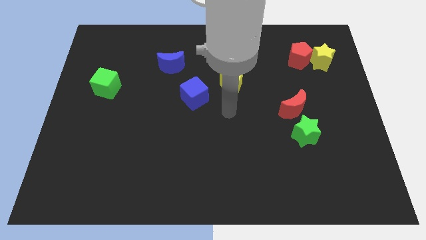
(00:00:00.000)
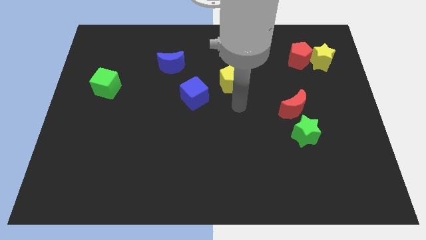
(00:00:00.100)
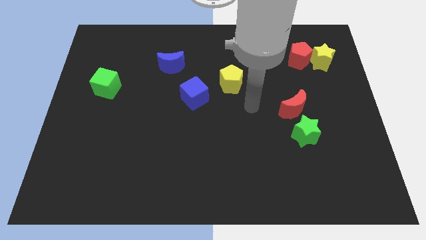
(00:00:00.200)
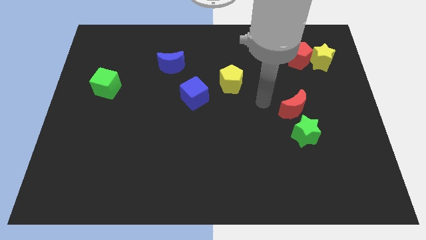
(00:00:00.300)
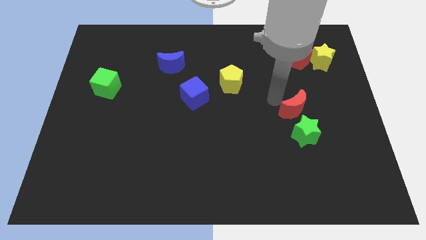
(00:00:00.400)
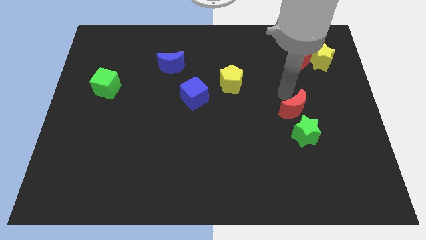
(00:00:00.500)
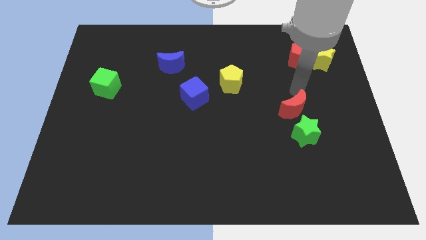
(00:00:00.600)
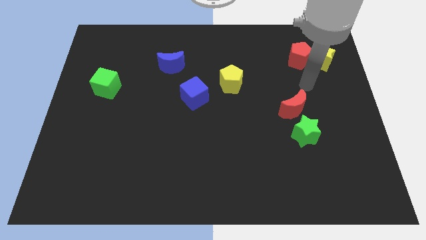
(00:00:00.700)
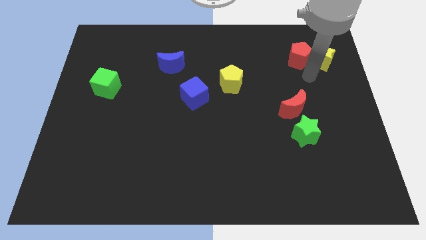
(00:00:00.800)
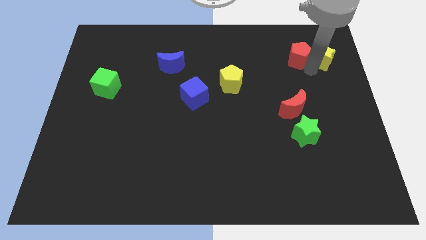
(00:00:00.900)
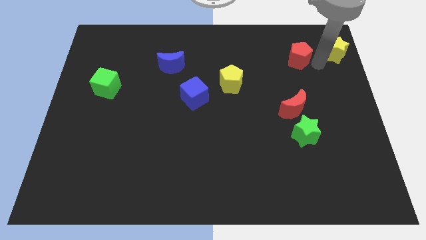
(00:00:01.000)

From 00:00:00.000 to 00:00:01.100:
move the red pentagon away from the yellow star

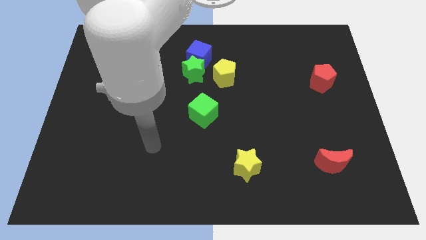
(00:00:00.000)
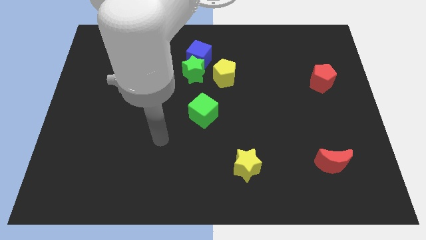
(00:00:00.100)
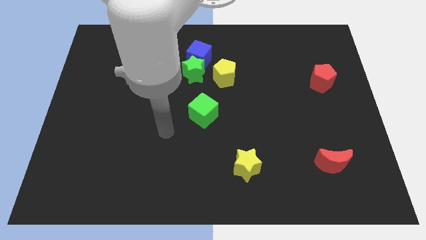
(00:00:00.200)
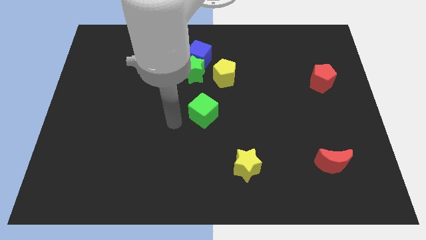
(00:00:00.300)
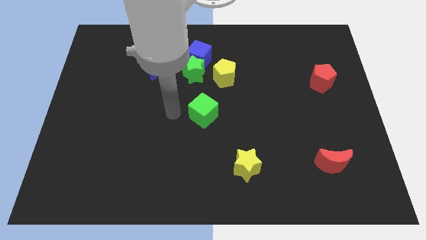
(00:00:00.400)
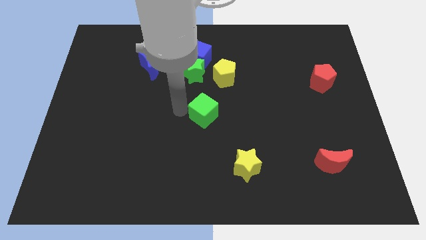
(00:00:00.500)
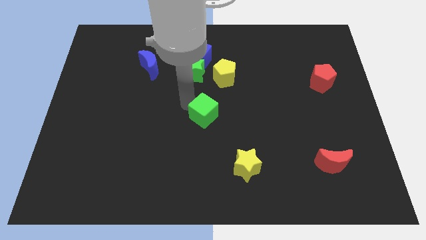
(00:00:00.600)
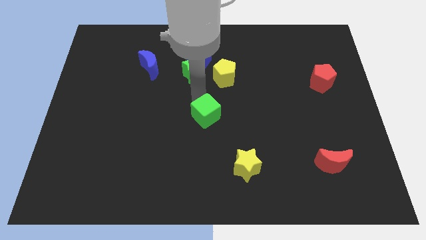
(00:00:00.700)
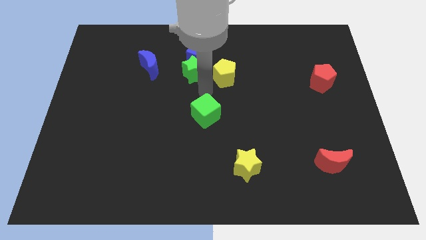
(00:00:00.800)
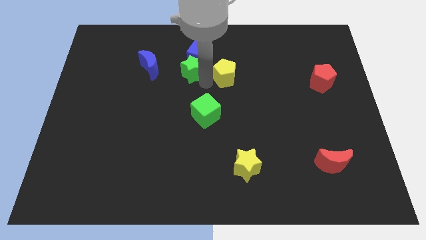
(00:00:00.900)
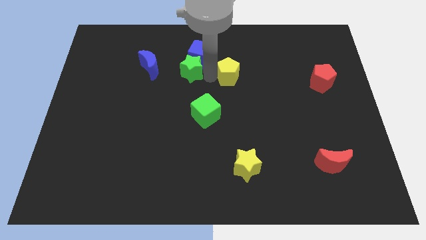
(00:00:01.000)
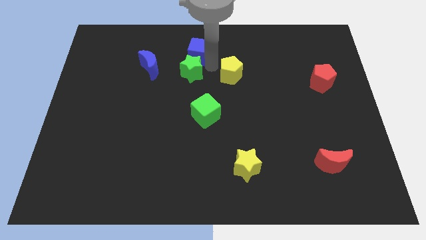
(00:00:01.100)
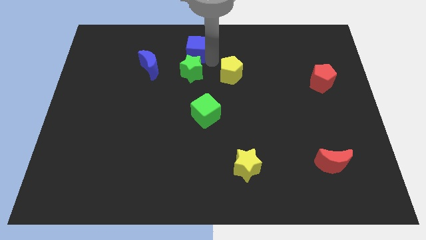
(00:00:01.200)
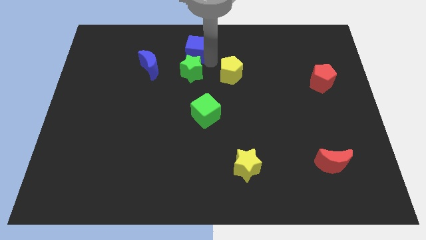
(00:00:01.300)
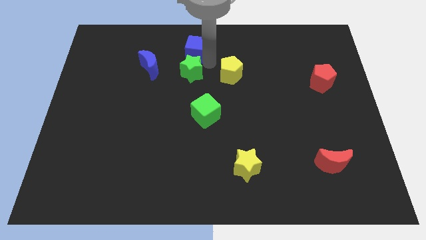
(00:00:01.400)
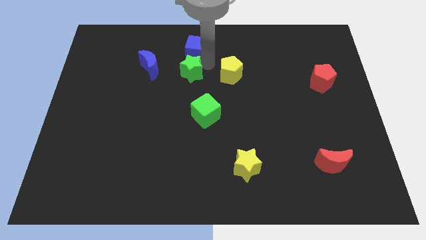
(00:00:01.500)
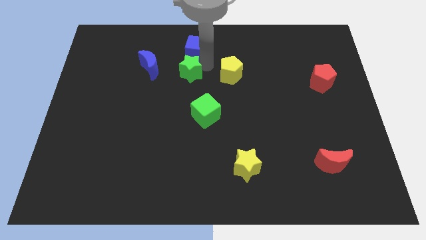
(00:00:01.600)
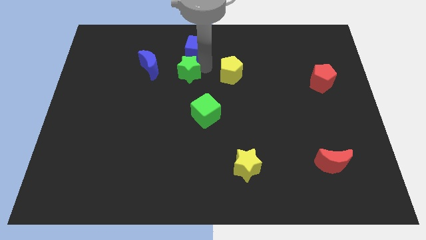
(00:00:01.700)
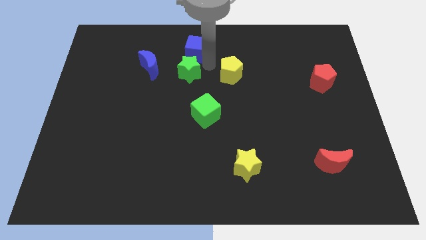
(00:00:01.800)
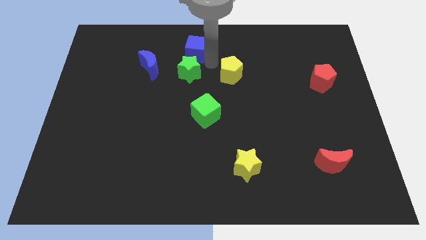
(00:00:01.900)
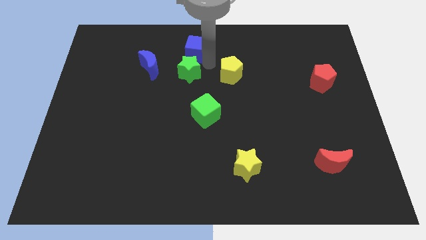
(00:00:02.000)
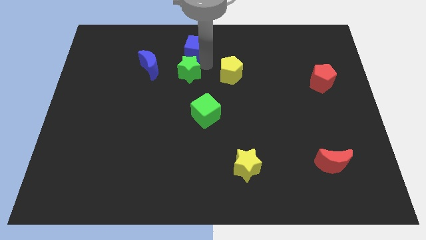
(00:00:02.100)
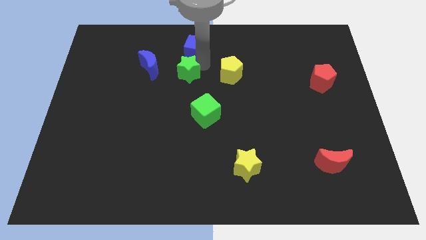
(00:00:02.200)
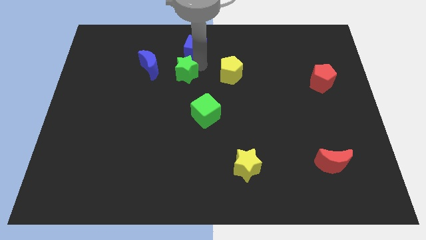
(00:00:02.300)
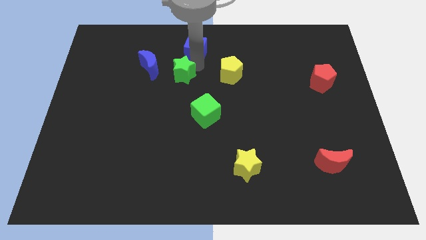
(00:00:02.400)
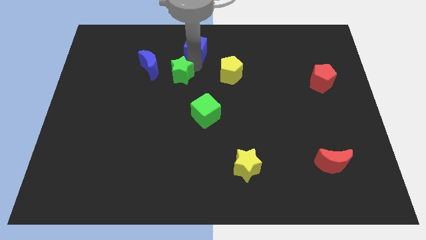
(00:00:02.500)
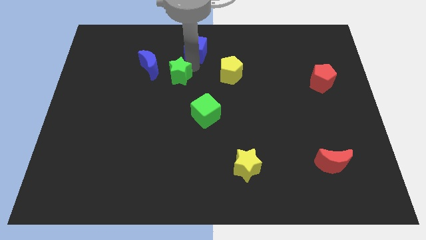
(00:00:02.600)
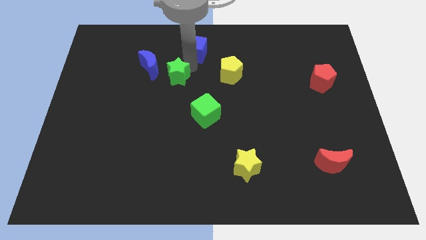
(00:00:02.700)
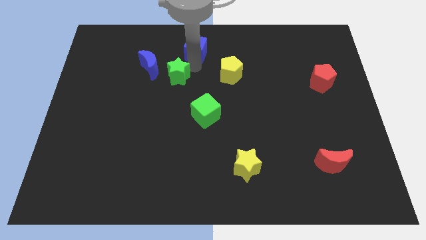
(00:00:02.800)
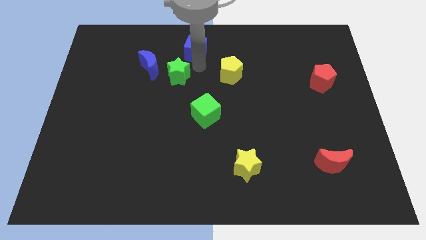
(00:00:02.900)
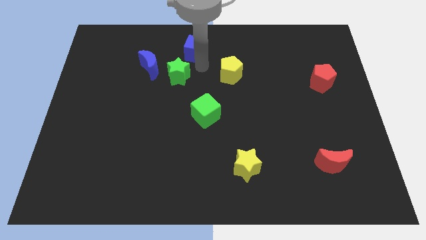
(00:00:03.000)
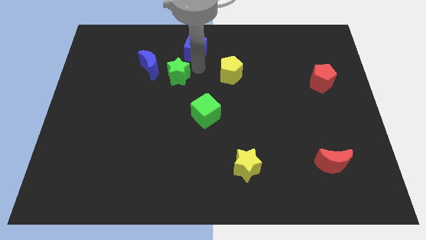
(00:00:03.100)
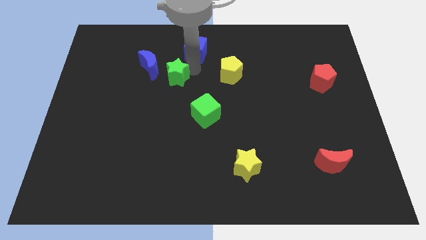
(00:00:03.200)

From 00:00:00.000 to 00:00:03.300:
pull the green star apart from the blue cube and yellow pentagon

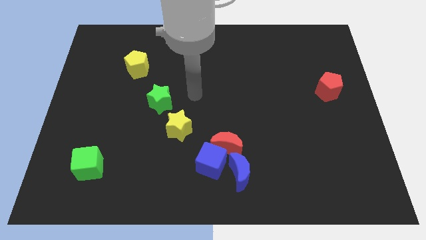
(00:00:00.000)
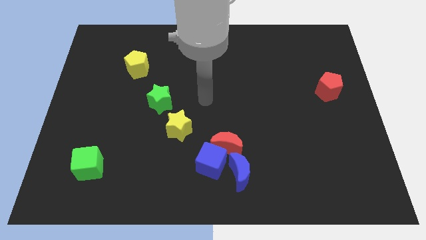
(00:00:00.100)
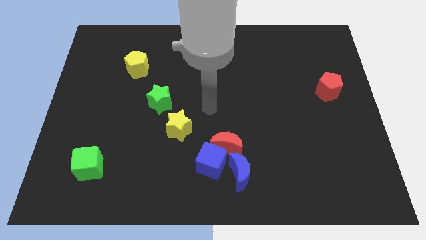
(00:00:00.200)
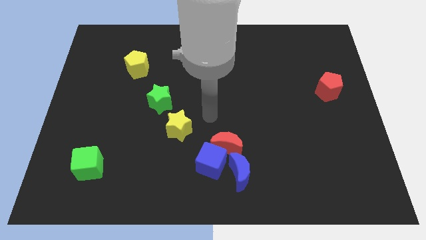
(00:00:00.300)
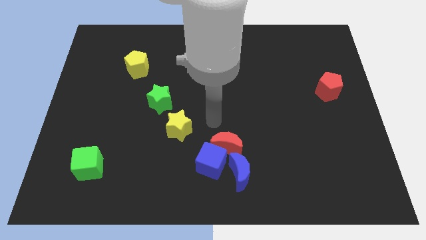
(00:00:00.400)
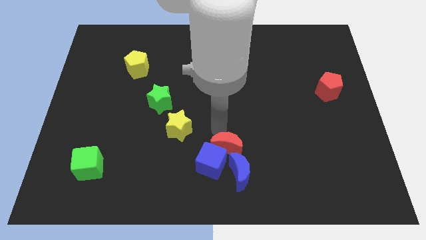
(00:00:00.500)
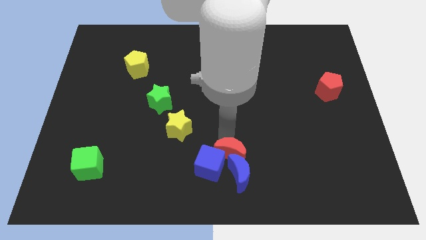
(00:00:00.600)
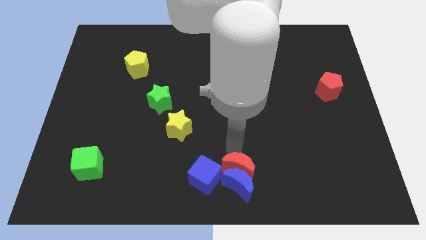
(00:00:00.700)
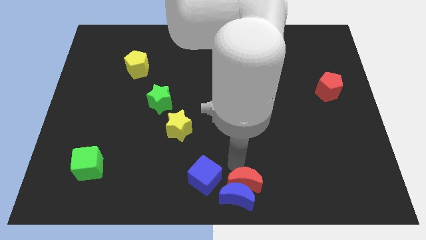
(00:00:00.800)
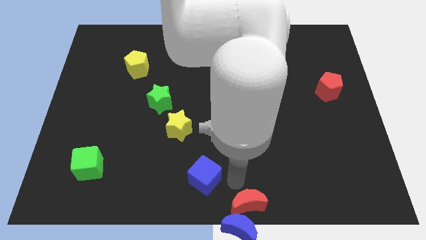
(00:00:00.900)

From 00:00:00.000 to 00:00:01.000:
separate the blue cube from the red moon and blue moon

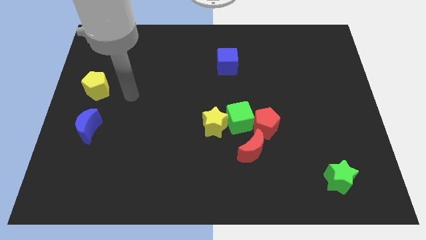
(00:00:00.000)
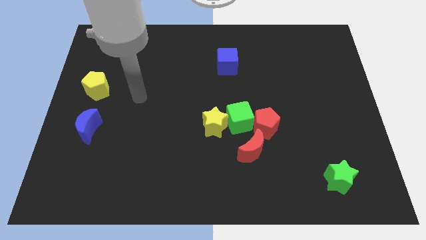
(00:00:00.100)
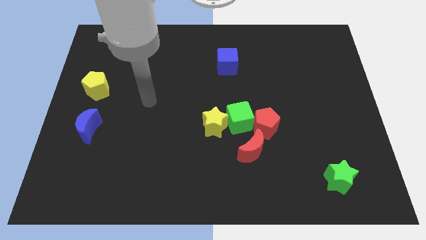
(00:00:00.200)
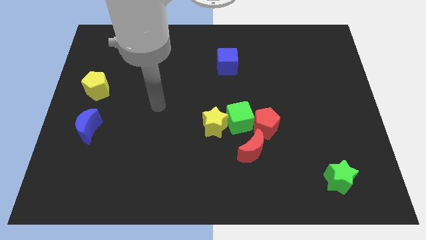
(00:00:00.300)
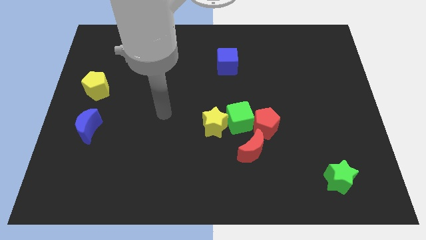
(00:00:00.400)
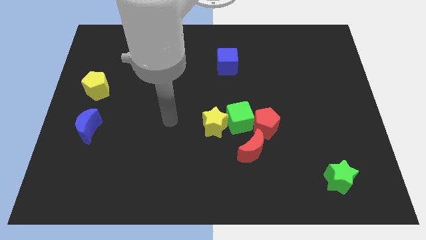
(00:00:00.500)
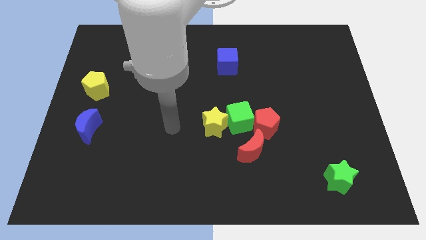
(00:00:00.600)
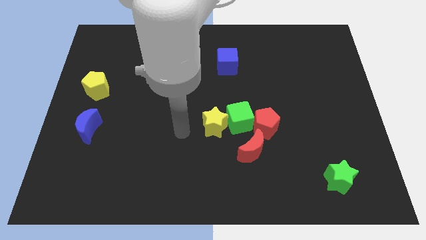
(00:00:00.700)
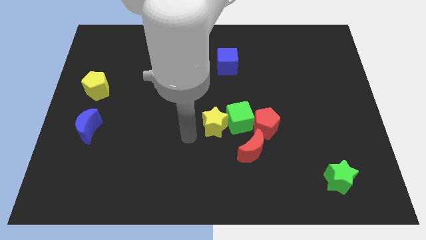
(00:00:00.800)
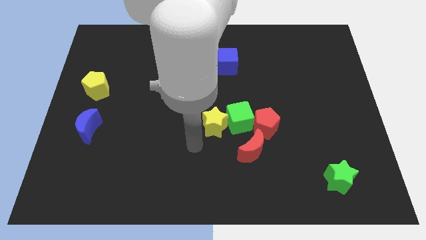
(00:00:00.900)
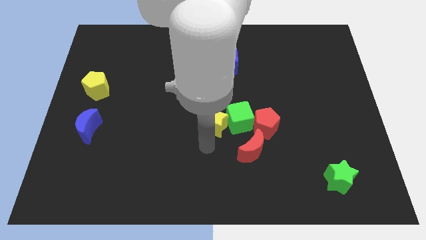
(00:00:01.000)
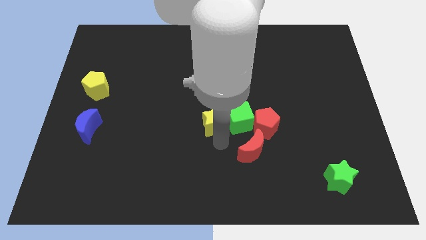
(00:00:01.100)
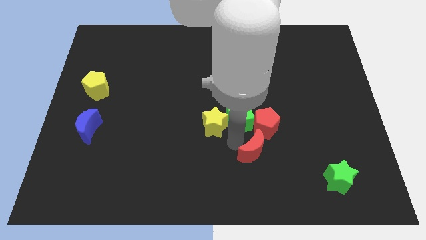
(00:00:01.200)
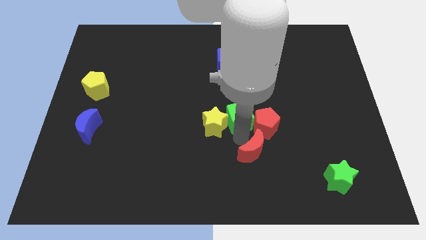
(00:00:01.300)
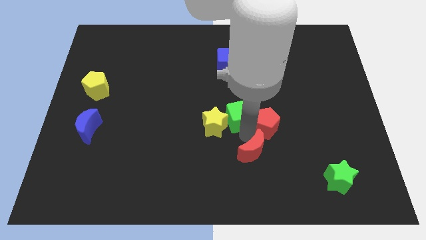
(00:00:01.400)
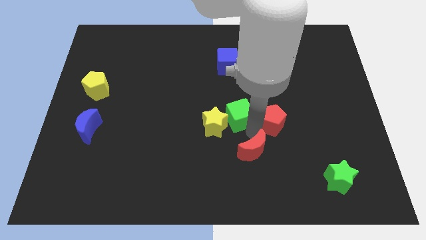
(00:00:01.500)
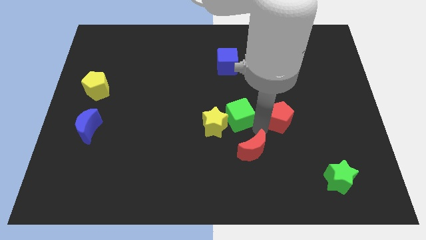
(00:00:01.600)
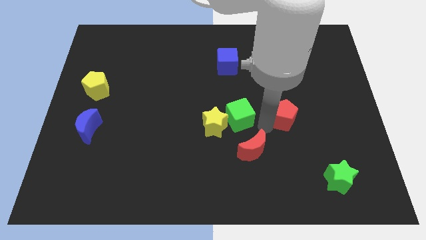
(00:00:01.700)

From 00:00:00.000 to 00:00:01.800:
move the red pentagon away from the green cube and red moon

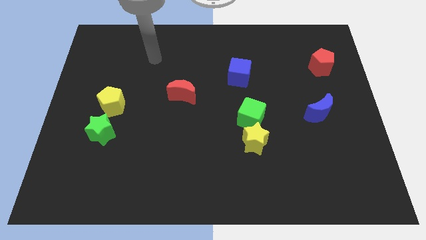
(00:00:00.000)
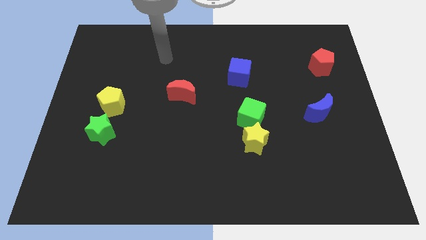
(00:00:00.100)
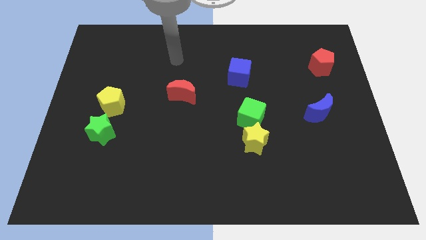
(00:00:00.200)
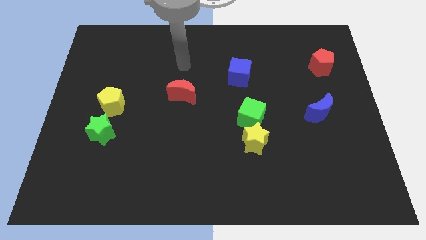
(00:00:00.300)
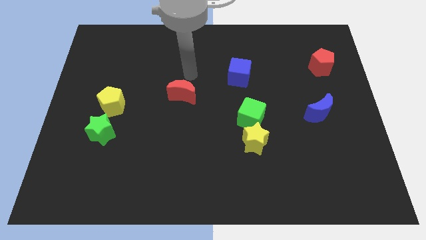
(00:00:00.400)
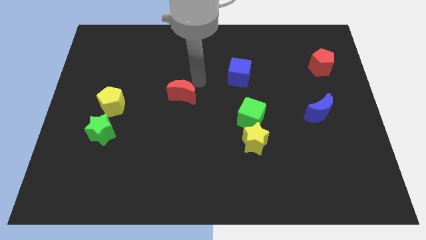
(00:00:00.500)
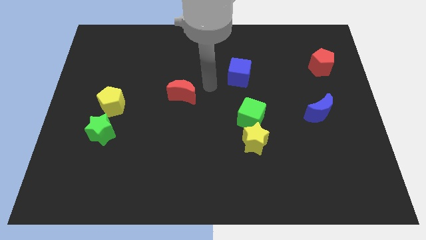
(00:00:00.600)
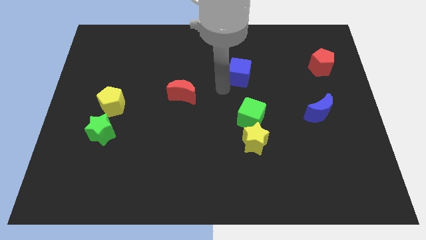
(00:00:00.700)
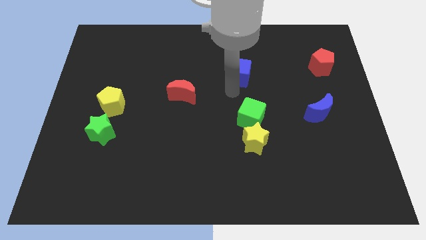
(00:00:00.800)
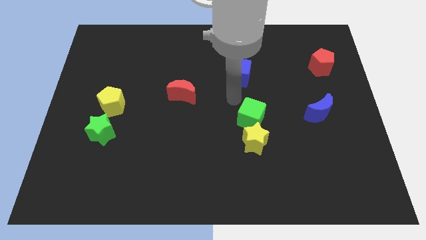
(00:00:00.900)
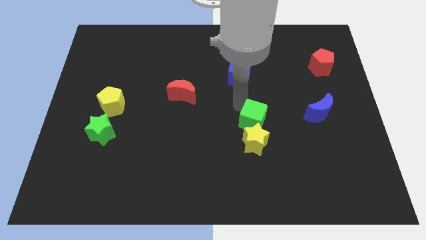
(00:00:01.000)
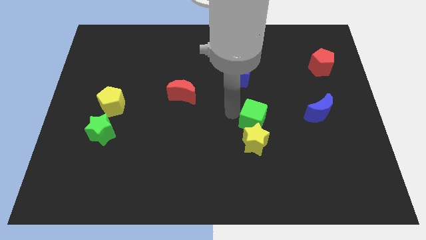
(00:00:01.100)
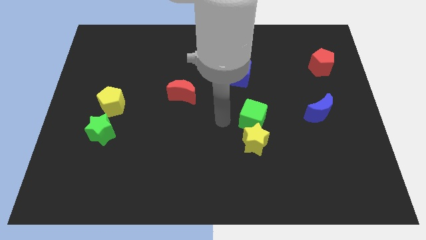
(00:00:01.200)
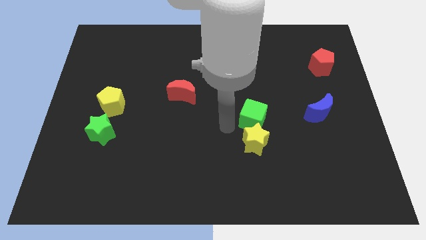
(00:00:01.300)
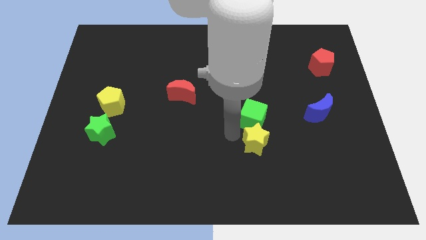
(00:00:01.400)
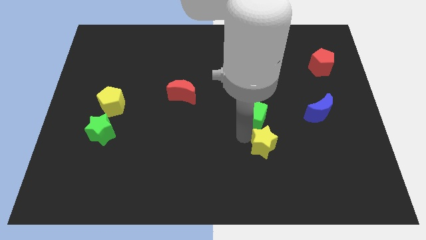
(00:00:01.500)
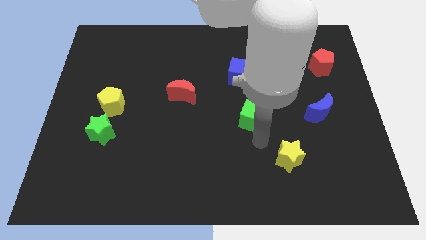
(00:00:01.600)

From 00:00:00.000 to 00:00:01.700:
move the green cube away from the yellow star

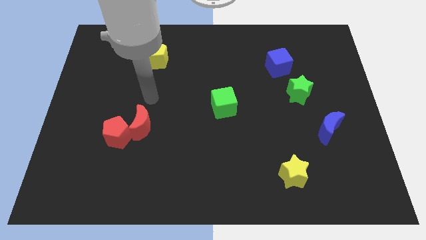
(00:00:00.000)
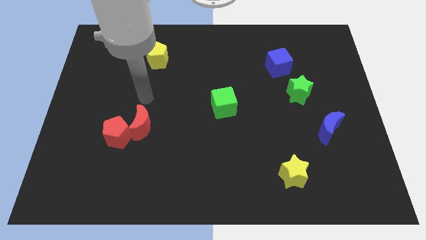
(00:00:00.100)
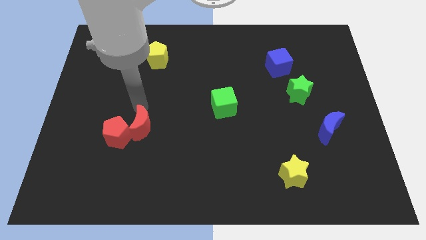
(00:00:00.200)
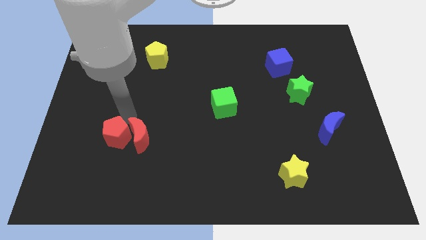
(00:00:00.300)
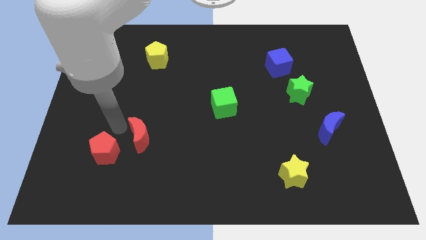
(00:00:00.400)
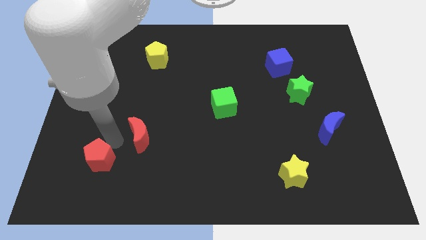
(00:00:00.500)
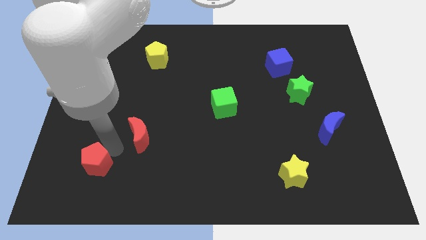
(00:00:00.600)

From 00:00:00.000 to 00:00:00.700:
separate the red moon from the red pentagon
